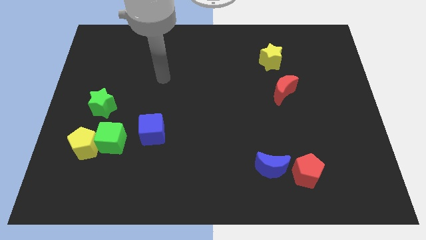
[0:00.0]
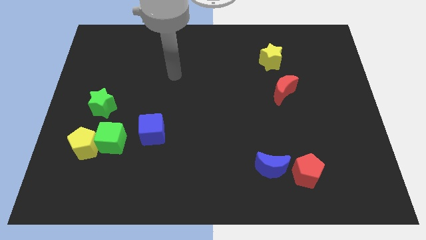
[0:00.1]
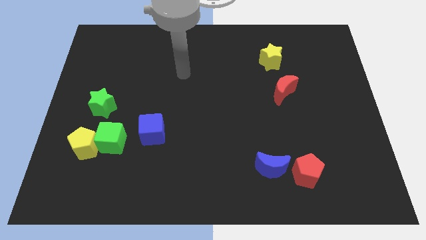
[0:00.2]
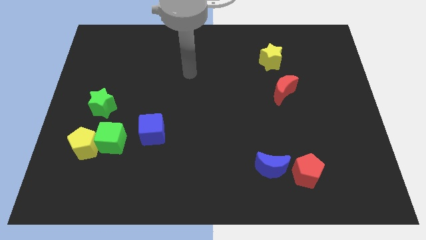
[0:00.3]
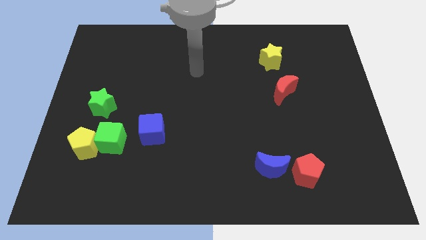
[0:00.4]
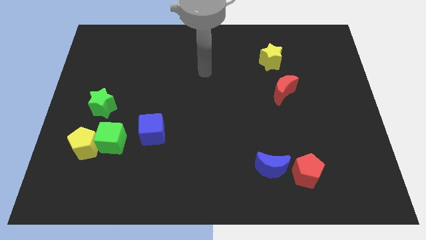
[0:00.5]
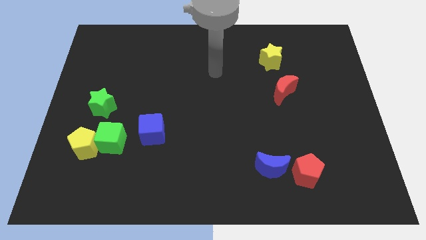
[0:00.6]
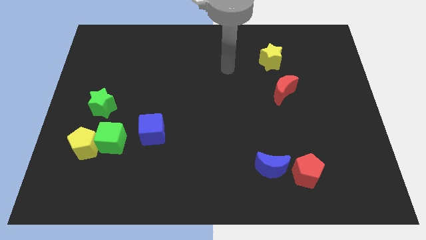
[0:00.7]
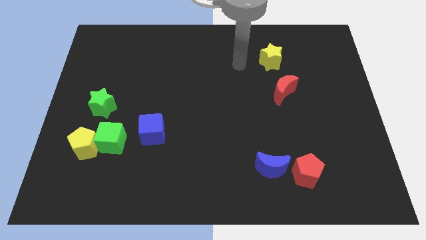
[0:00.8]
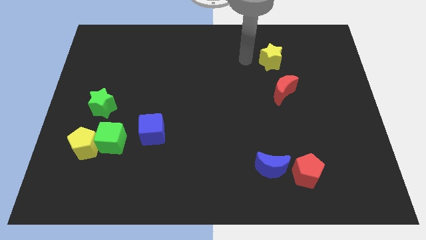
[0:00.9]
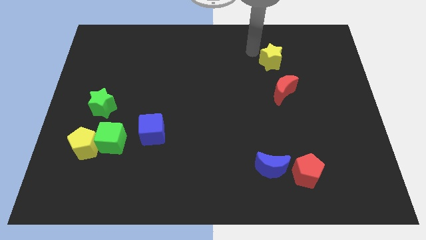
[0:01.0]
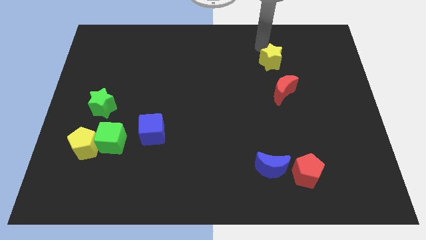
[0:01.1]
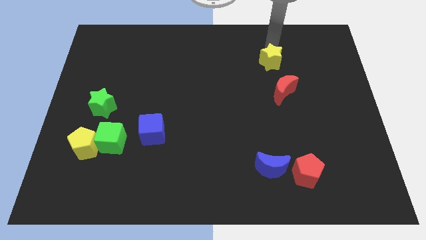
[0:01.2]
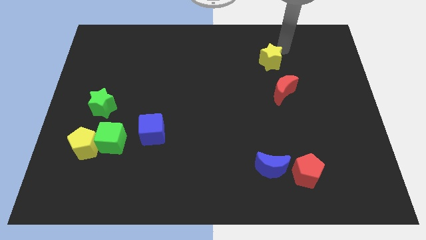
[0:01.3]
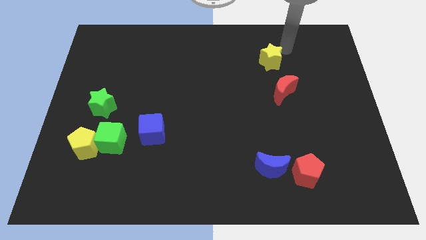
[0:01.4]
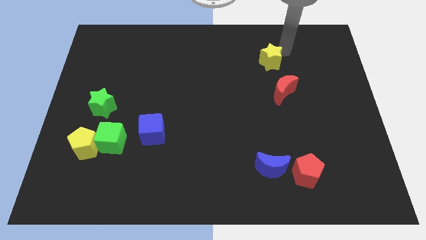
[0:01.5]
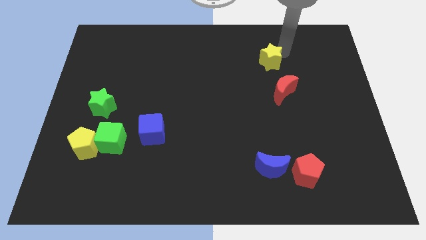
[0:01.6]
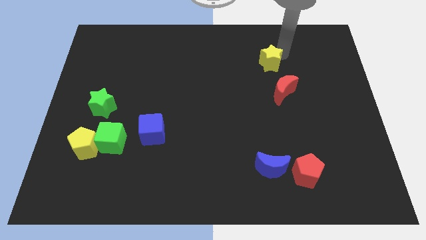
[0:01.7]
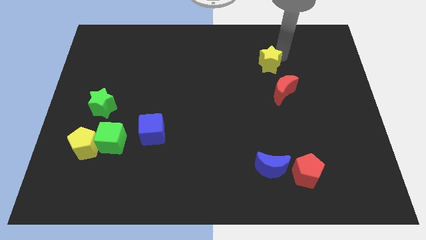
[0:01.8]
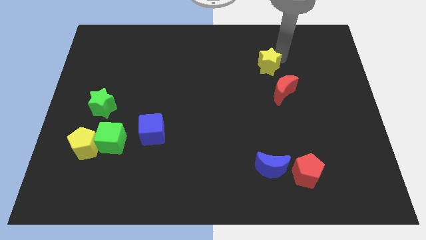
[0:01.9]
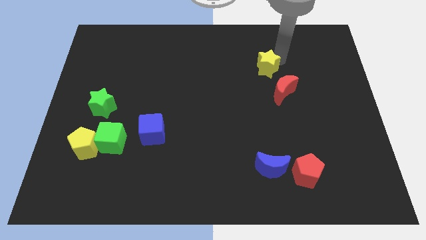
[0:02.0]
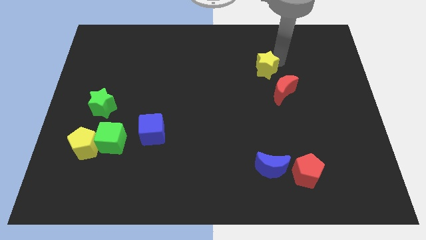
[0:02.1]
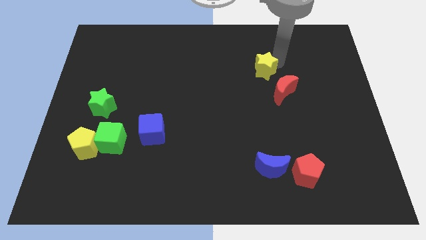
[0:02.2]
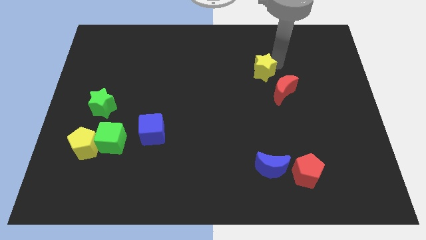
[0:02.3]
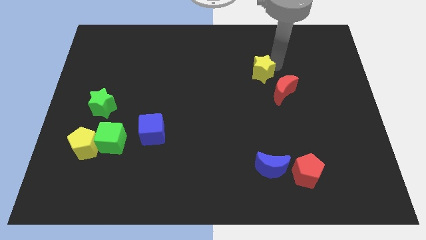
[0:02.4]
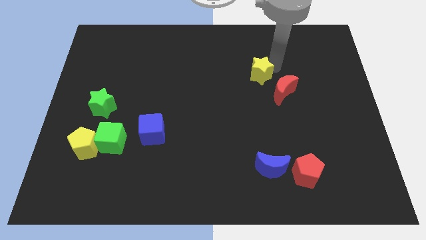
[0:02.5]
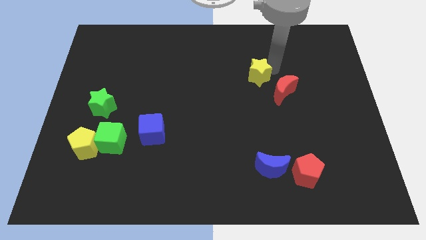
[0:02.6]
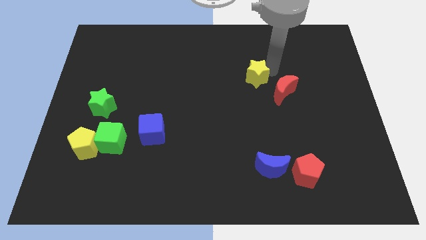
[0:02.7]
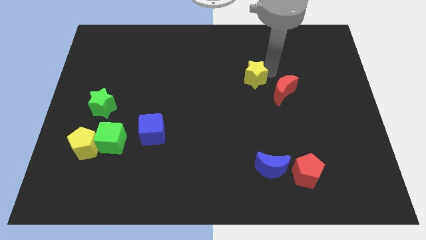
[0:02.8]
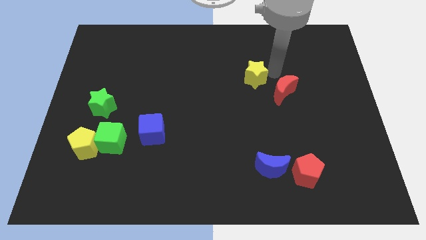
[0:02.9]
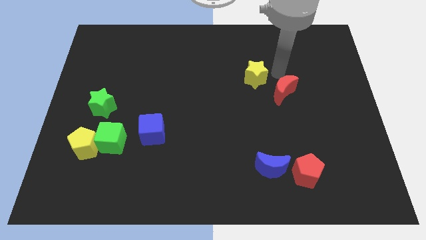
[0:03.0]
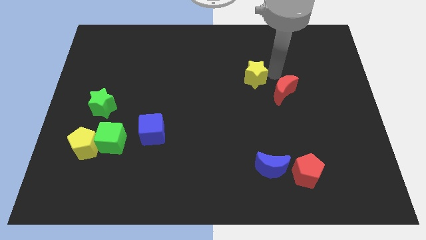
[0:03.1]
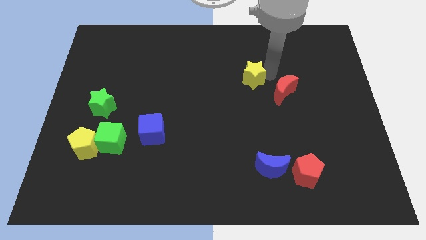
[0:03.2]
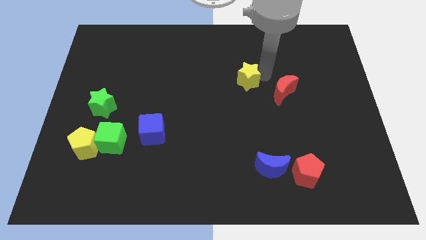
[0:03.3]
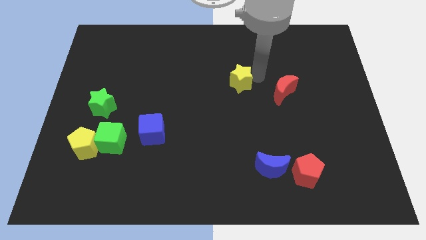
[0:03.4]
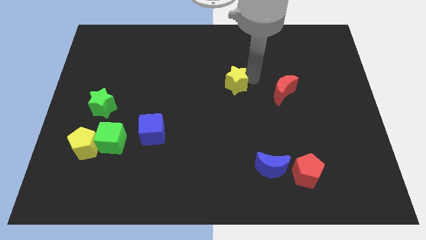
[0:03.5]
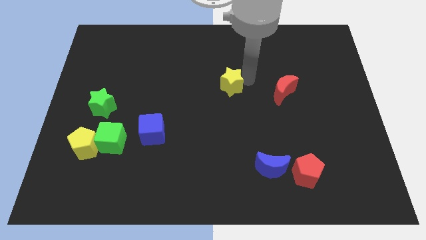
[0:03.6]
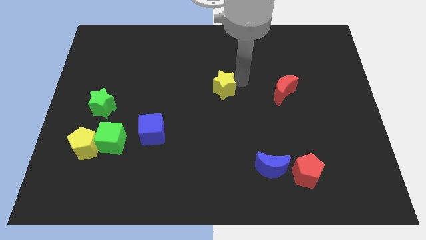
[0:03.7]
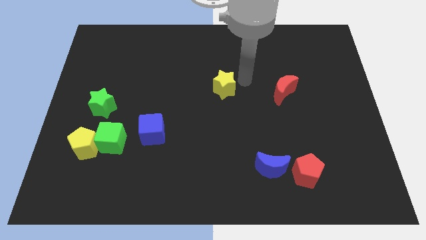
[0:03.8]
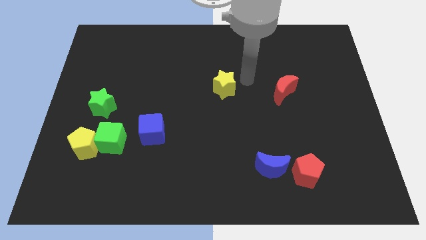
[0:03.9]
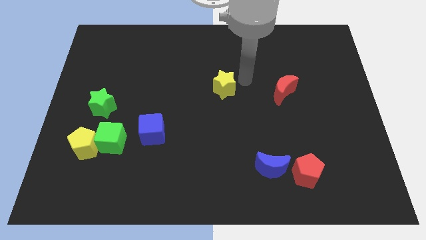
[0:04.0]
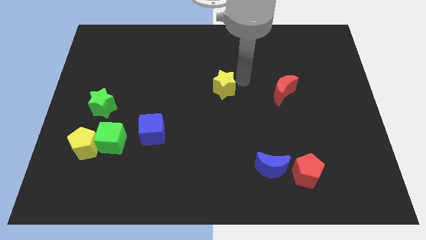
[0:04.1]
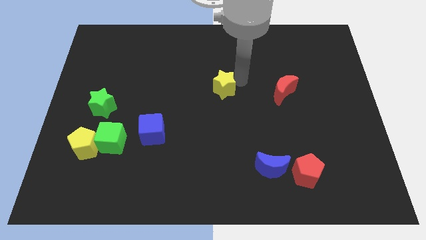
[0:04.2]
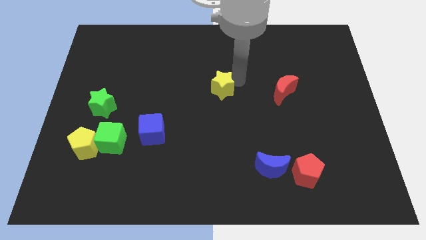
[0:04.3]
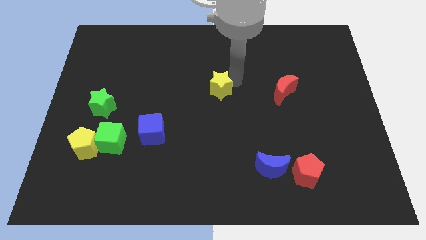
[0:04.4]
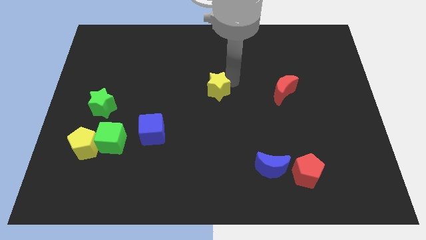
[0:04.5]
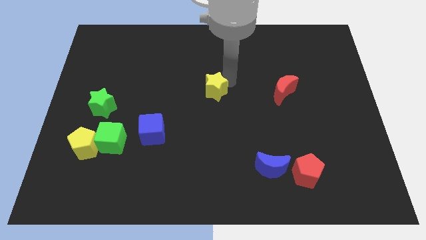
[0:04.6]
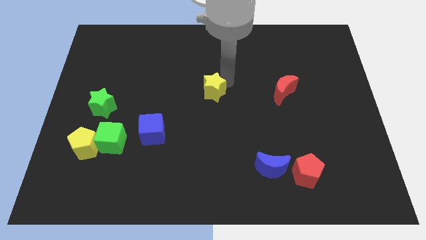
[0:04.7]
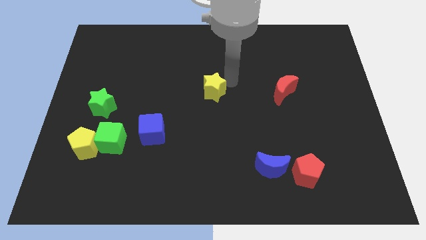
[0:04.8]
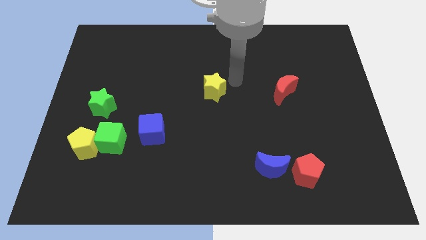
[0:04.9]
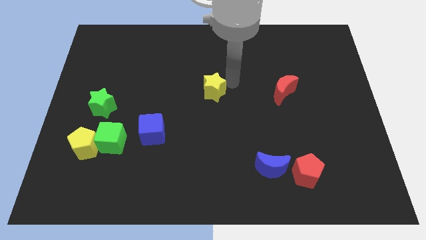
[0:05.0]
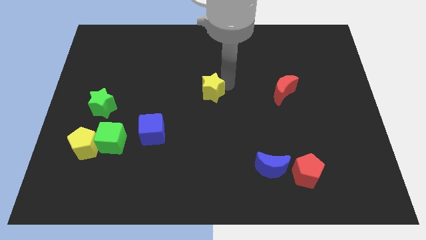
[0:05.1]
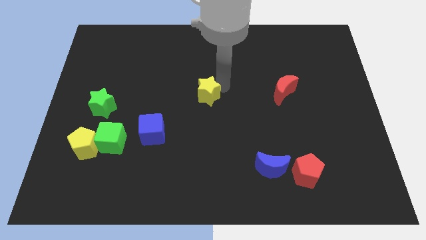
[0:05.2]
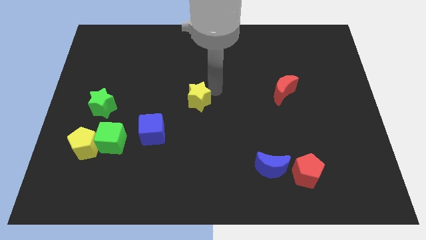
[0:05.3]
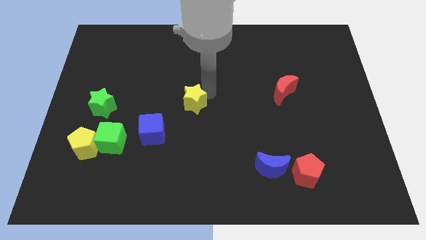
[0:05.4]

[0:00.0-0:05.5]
push the yellow star diagonally up and to the right of the blue cube

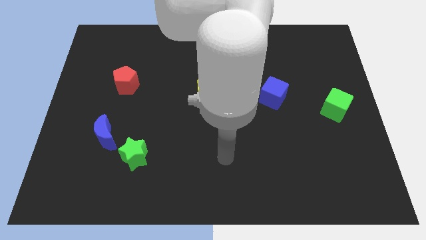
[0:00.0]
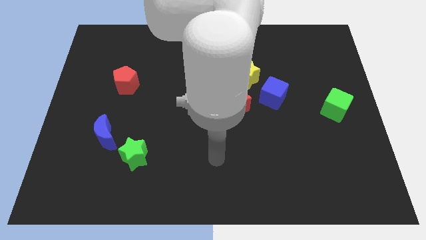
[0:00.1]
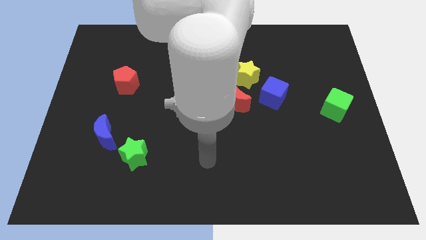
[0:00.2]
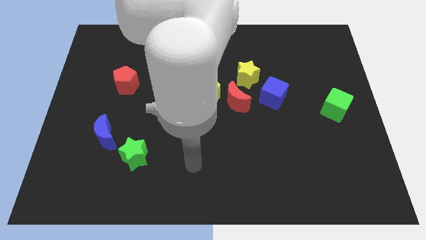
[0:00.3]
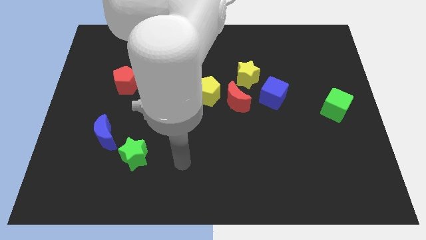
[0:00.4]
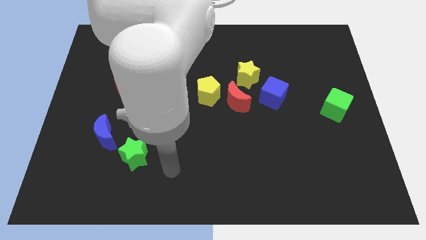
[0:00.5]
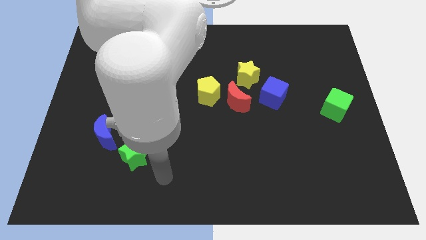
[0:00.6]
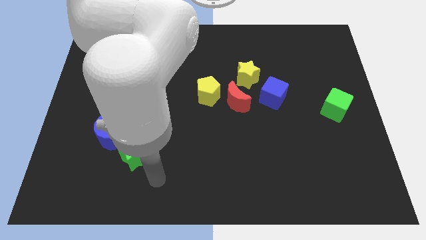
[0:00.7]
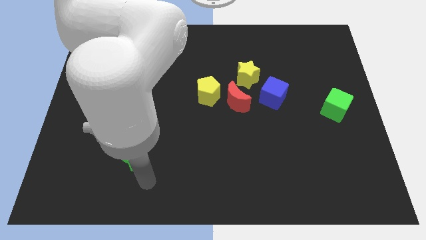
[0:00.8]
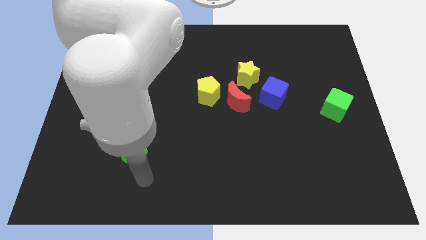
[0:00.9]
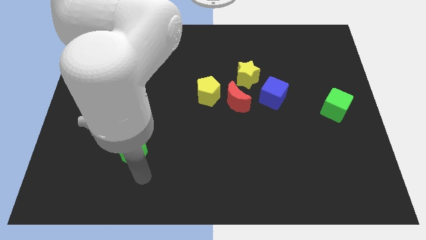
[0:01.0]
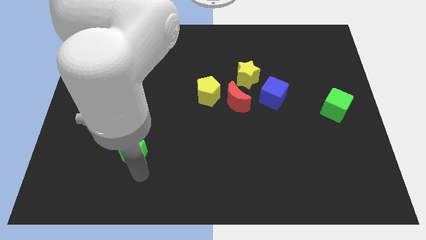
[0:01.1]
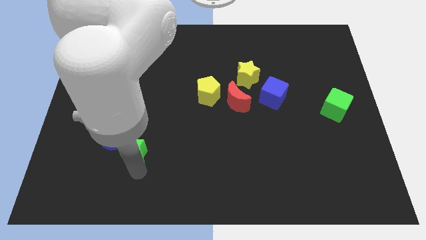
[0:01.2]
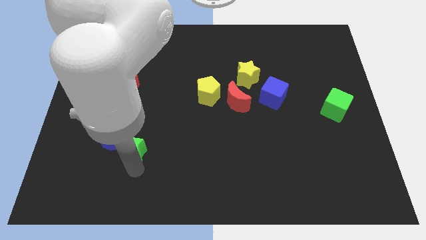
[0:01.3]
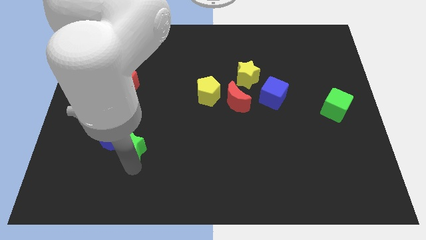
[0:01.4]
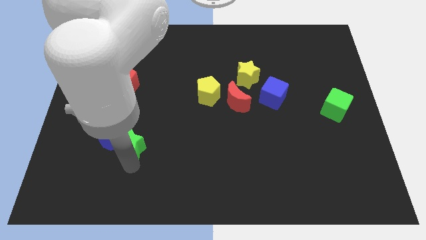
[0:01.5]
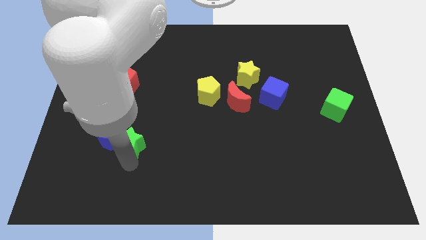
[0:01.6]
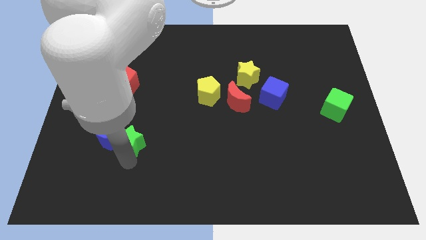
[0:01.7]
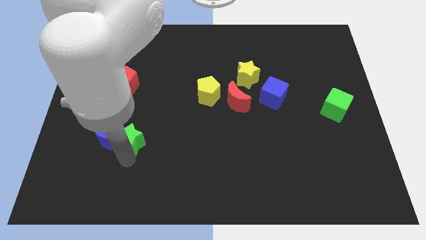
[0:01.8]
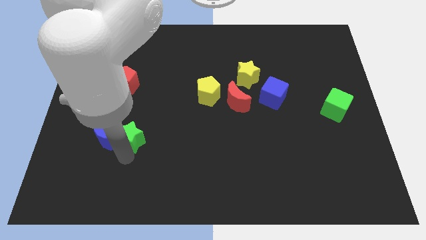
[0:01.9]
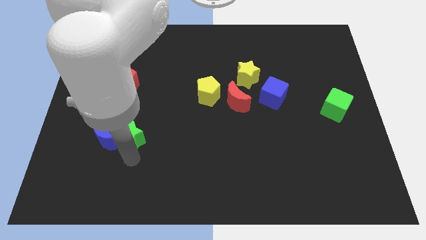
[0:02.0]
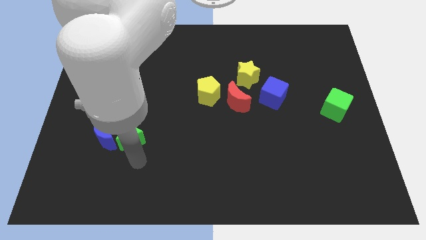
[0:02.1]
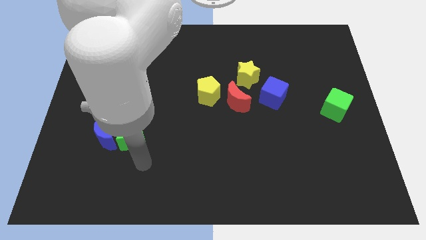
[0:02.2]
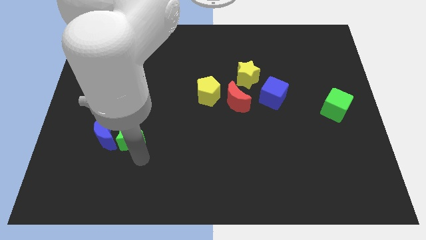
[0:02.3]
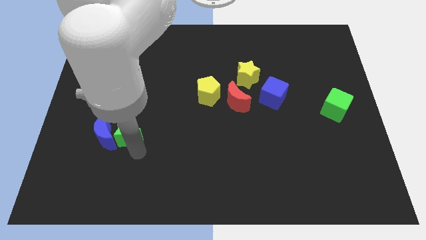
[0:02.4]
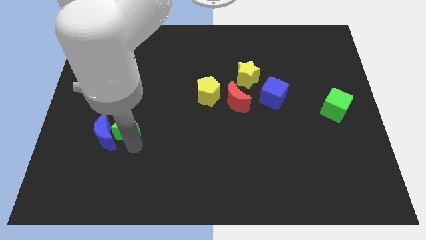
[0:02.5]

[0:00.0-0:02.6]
move the green star to the bottom side of the red pentagon
